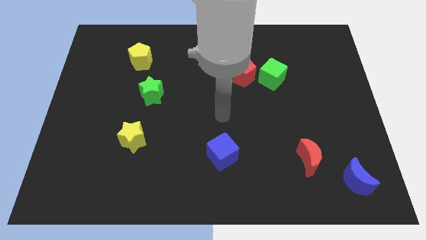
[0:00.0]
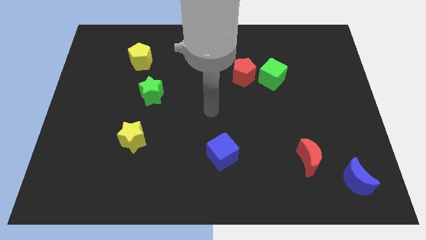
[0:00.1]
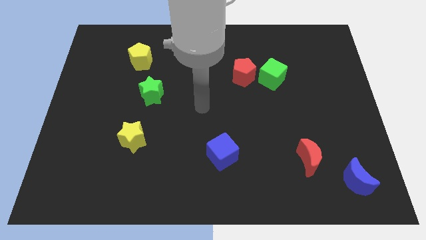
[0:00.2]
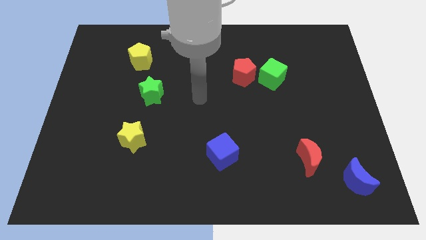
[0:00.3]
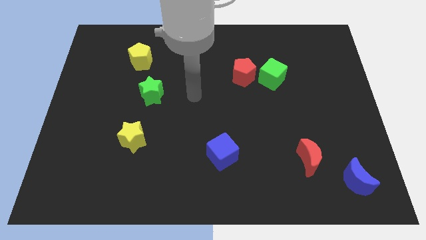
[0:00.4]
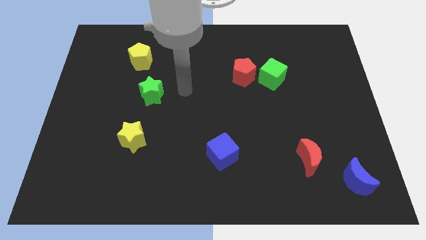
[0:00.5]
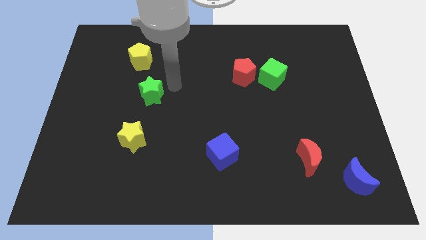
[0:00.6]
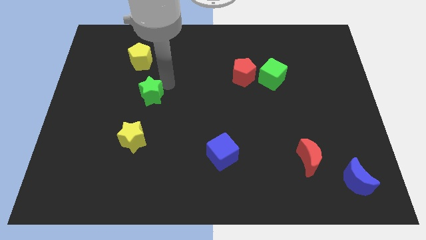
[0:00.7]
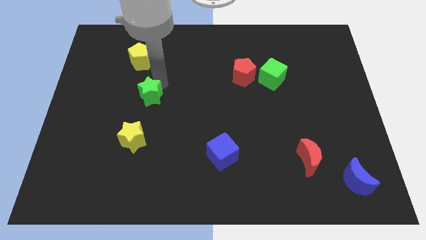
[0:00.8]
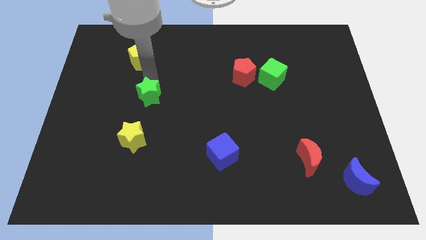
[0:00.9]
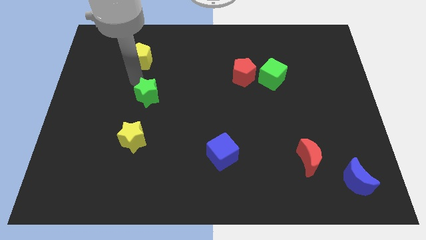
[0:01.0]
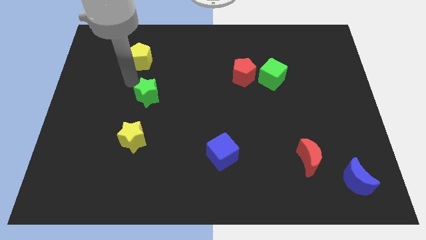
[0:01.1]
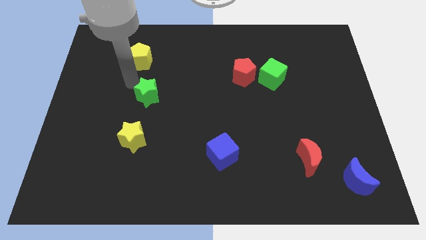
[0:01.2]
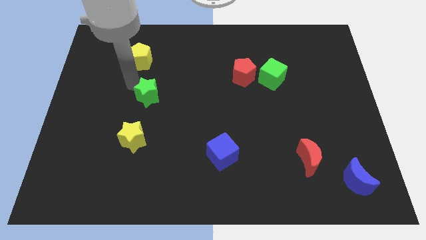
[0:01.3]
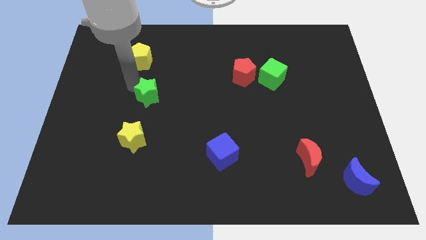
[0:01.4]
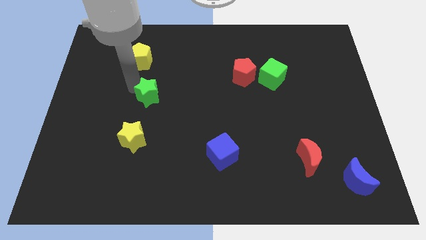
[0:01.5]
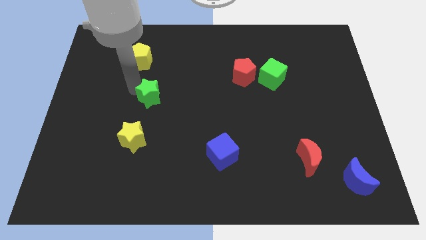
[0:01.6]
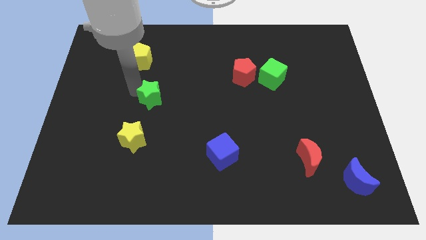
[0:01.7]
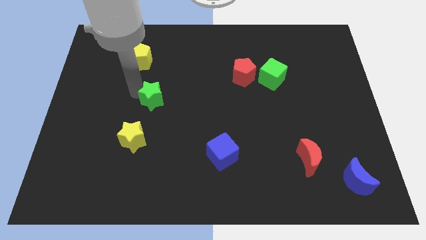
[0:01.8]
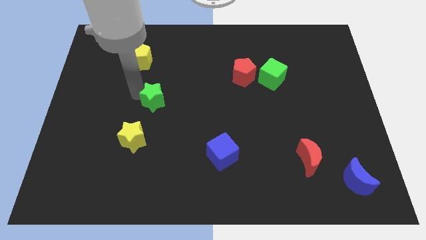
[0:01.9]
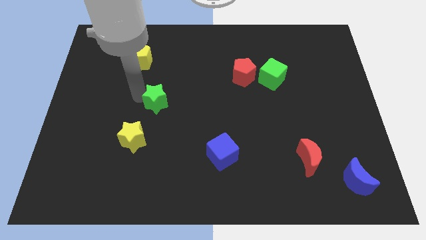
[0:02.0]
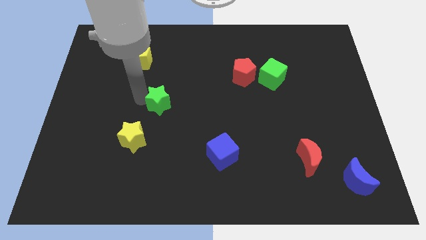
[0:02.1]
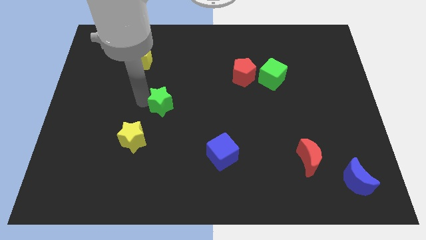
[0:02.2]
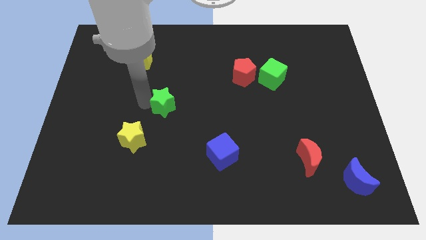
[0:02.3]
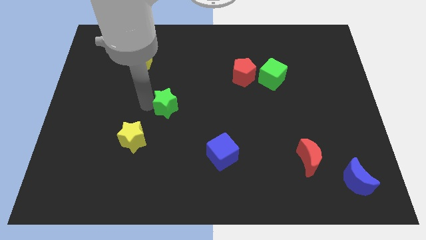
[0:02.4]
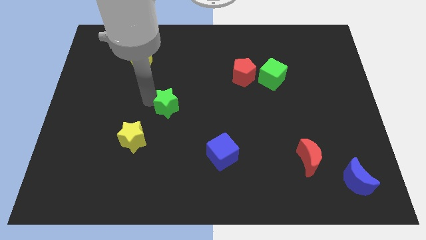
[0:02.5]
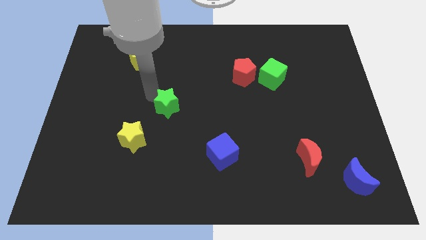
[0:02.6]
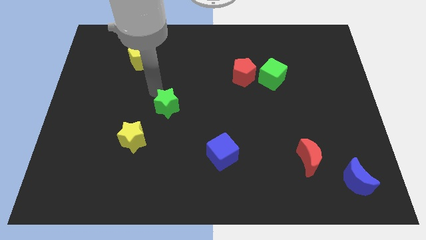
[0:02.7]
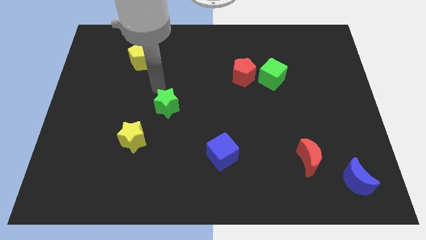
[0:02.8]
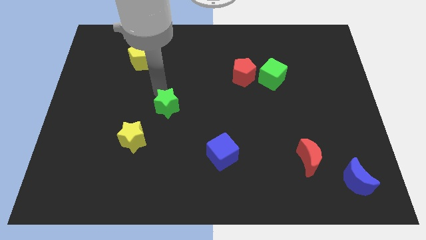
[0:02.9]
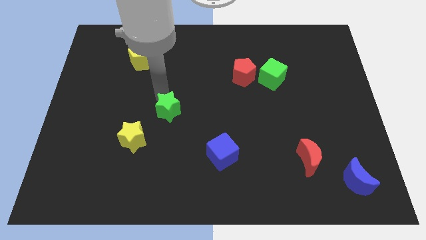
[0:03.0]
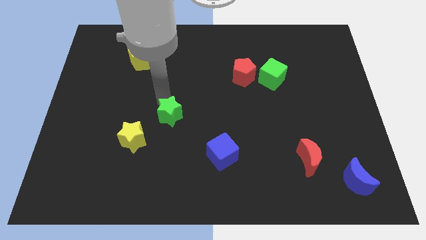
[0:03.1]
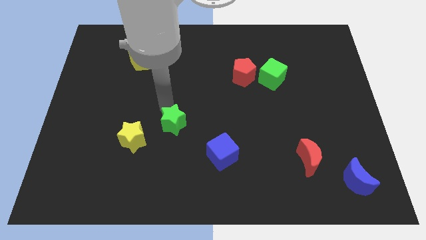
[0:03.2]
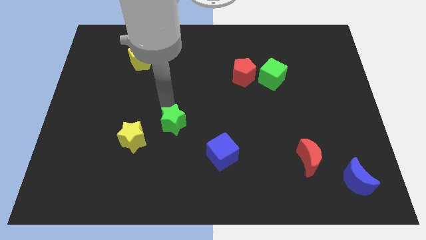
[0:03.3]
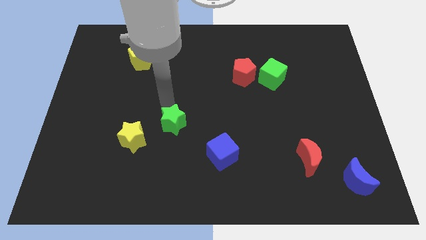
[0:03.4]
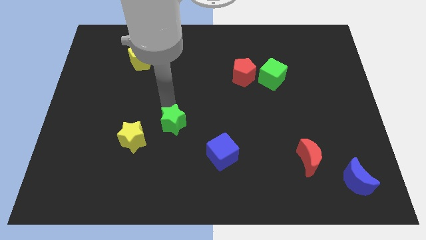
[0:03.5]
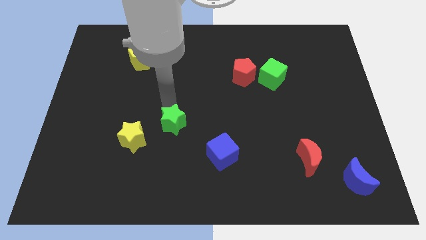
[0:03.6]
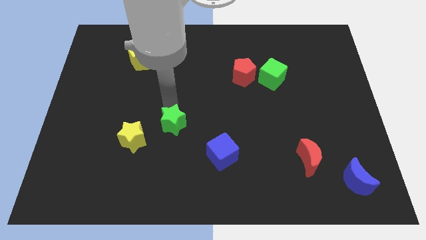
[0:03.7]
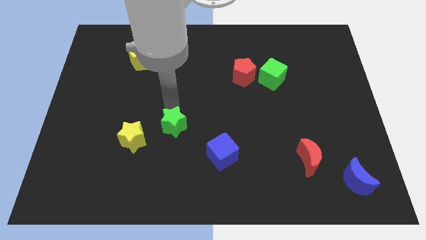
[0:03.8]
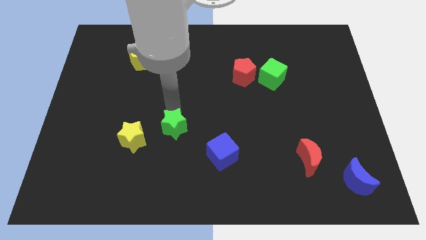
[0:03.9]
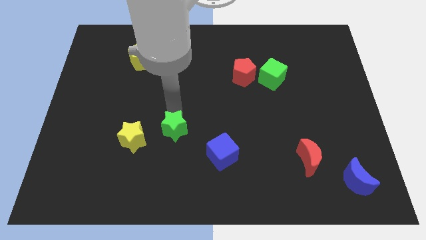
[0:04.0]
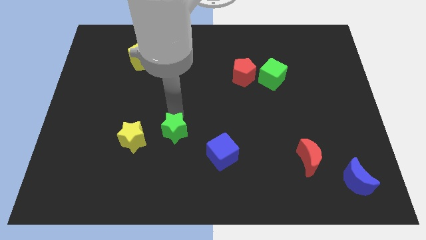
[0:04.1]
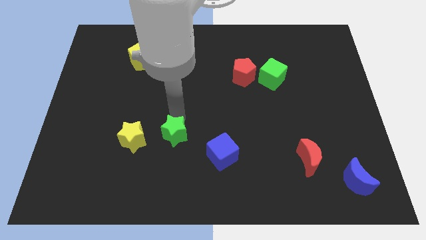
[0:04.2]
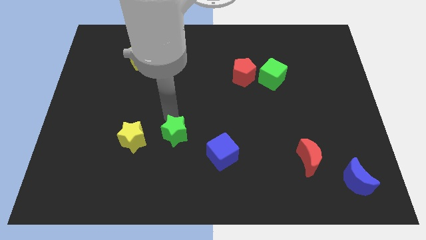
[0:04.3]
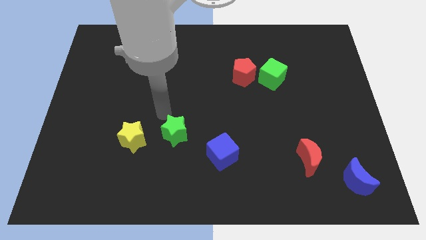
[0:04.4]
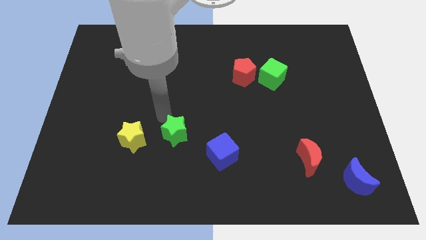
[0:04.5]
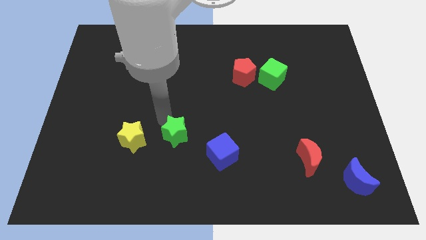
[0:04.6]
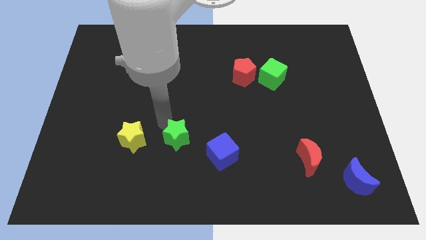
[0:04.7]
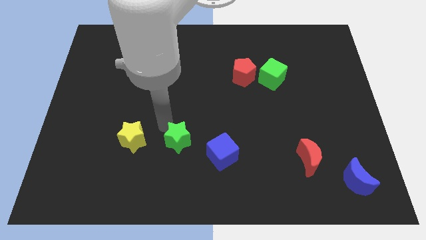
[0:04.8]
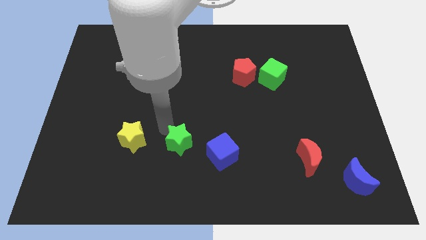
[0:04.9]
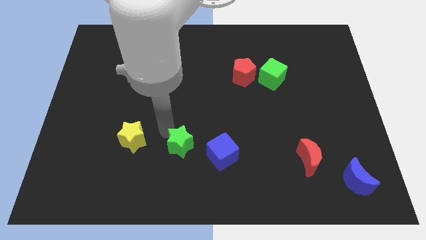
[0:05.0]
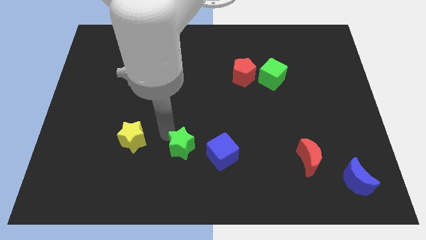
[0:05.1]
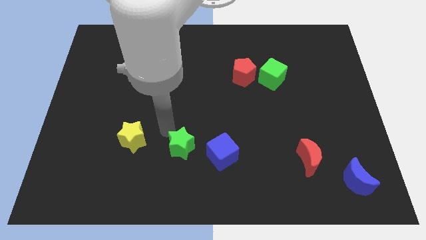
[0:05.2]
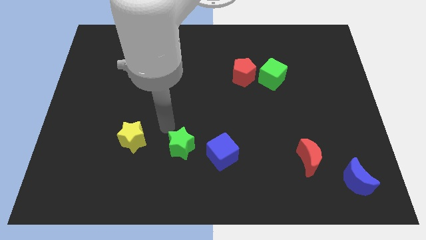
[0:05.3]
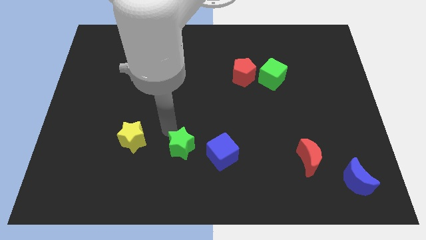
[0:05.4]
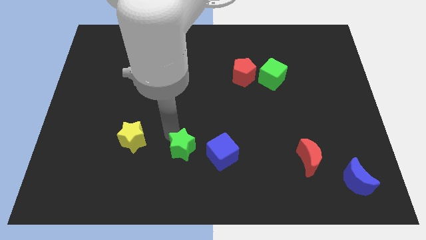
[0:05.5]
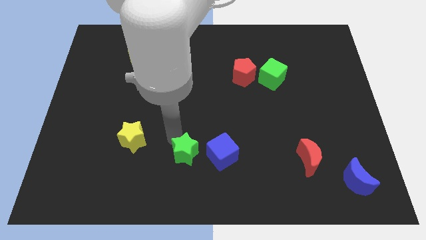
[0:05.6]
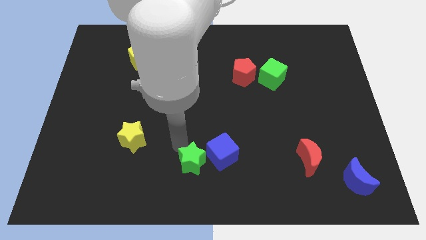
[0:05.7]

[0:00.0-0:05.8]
put the green star to the bottom side
